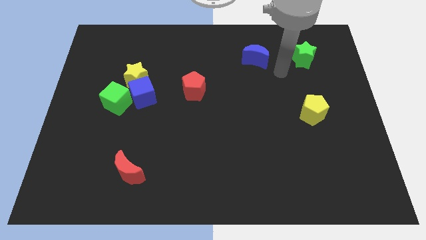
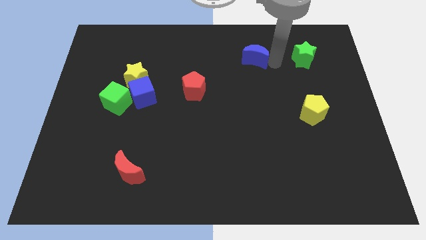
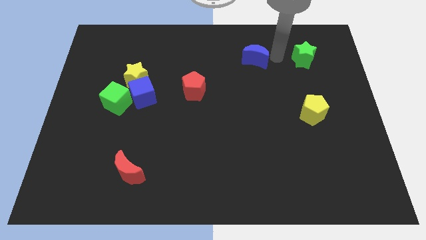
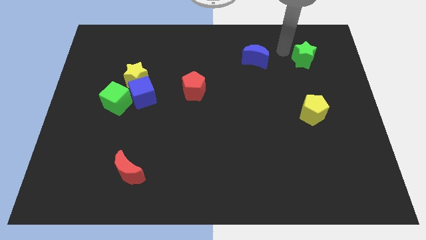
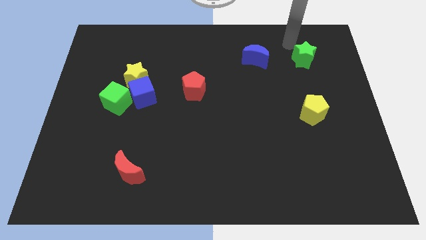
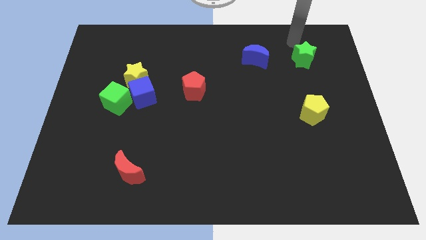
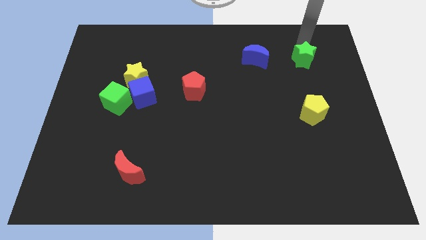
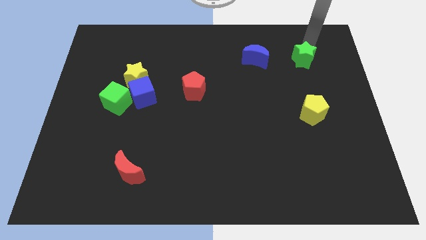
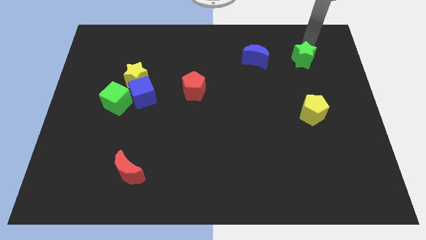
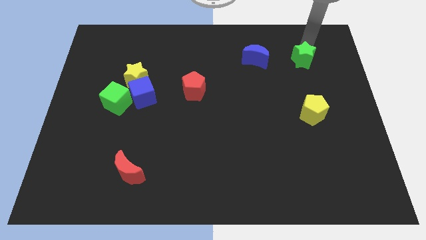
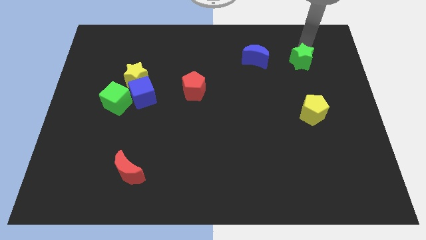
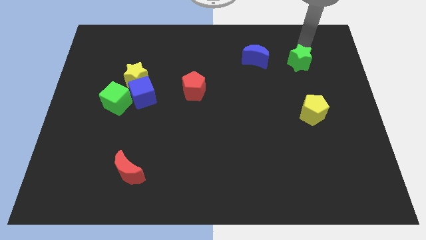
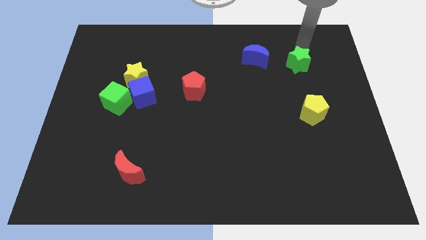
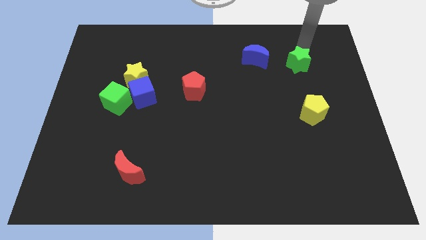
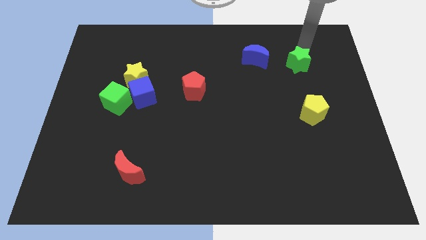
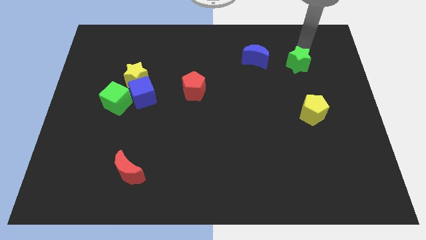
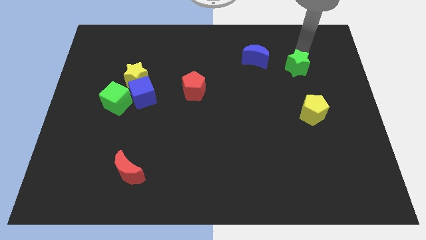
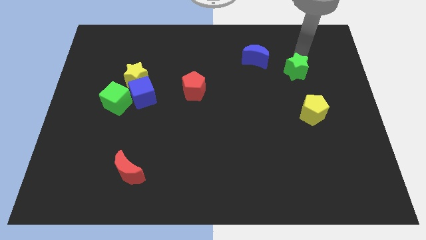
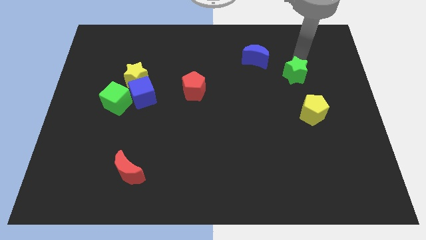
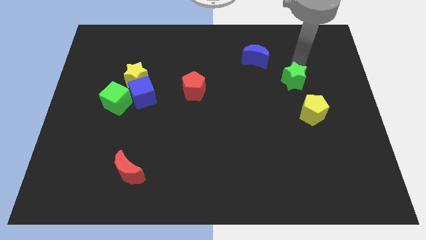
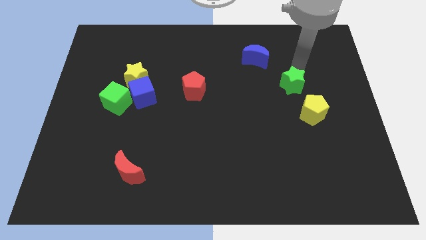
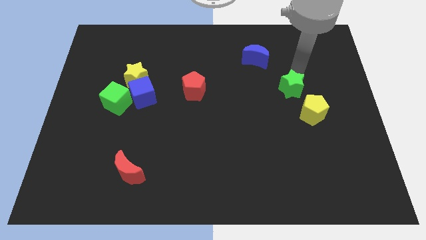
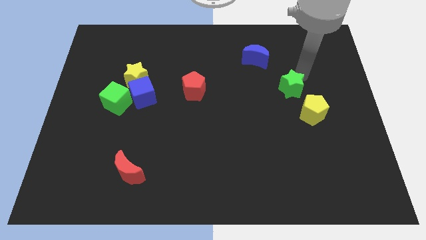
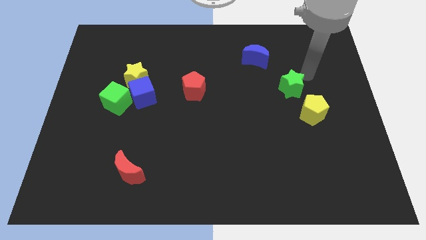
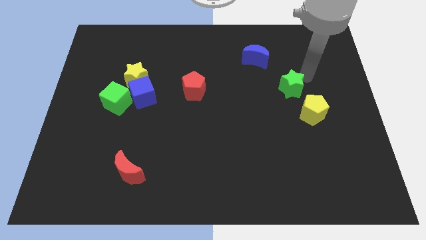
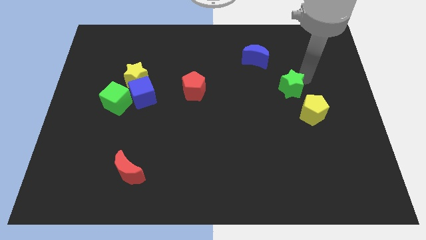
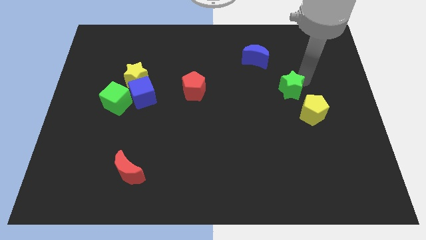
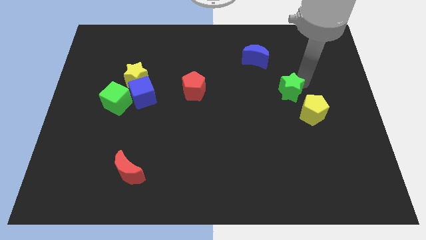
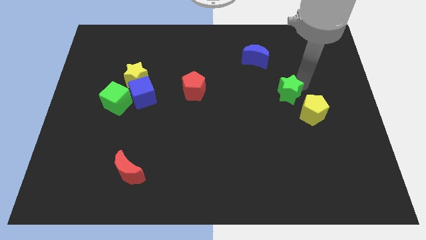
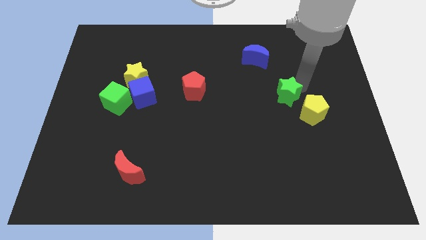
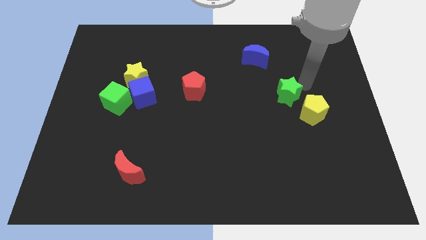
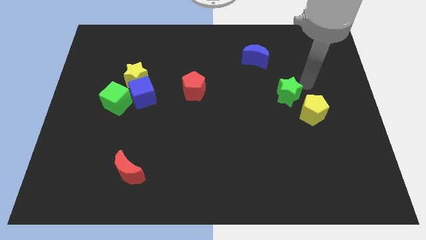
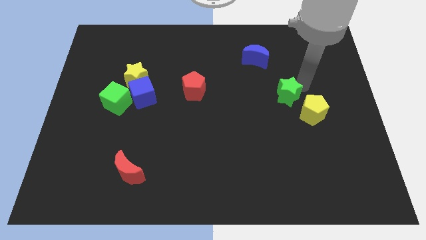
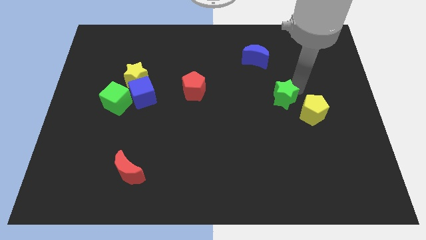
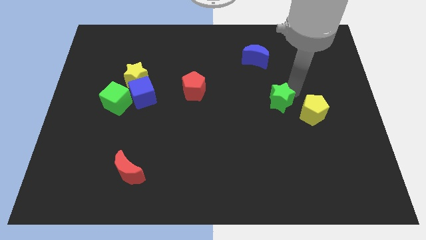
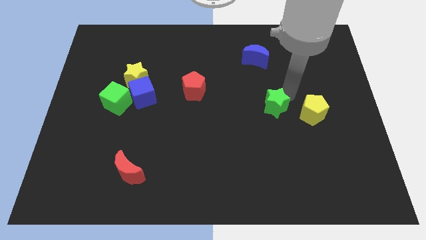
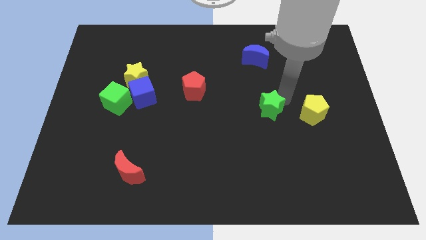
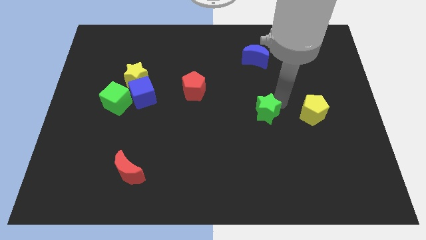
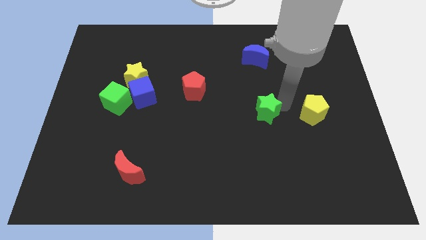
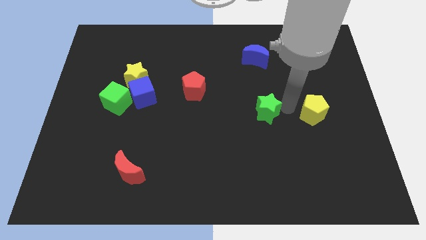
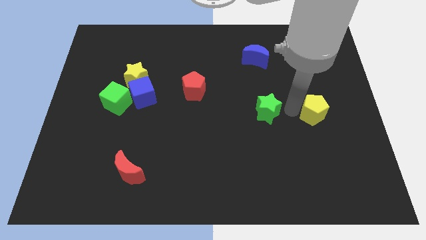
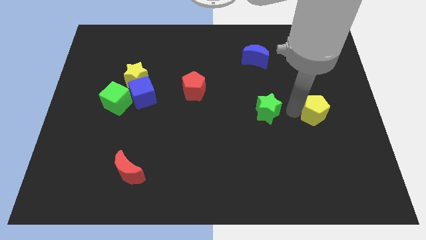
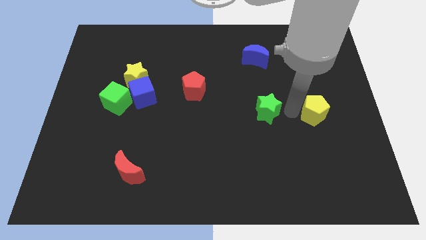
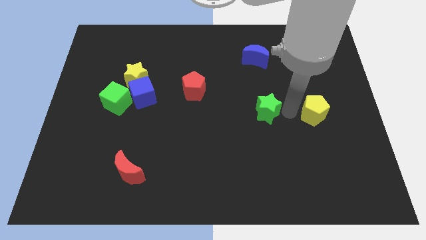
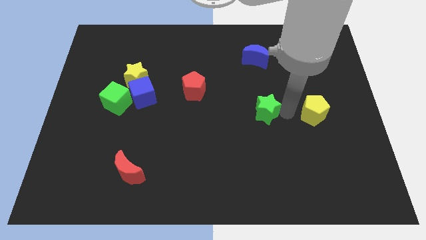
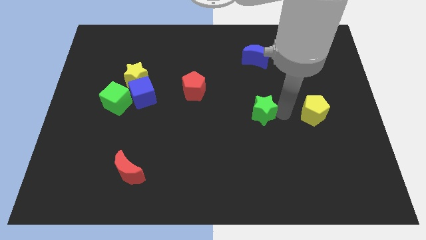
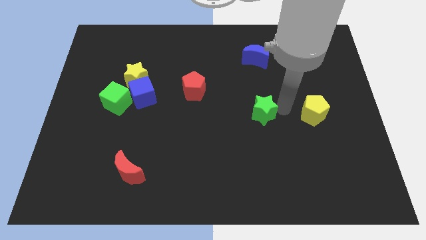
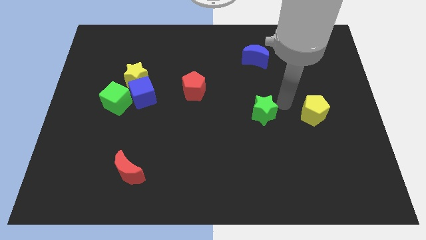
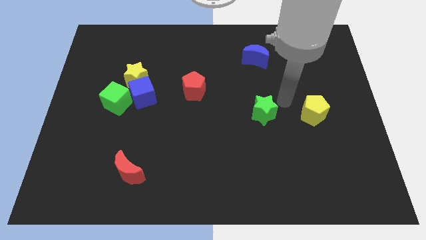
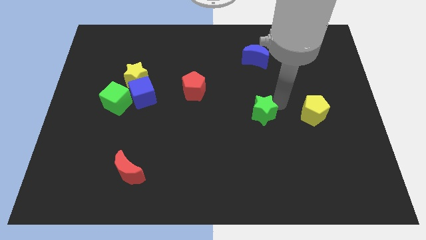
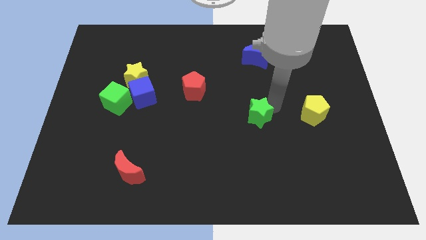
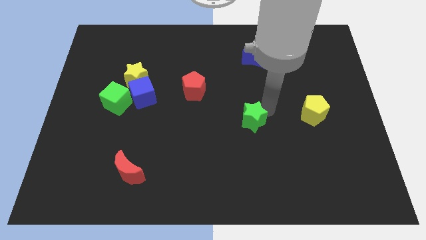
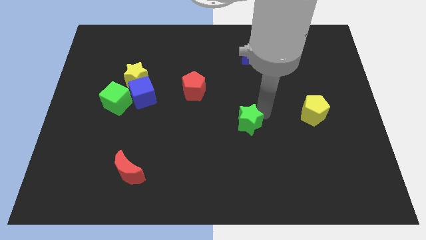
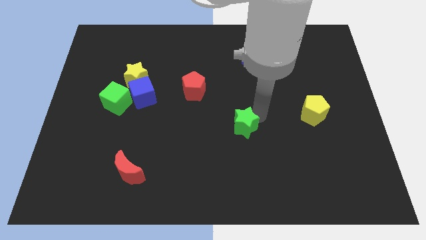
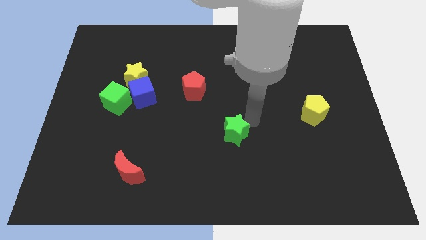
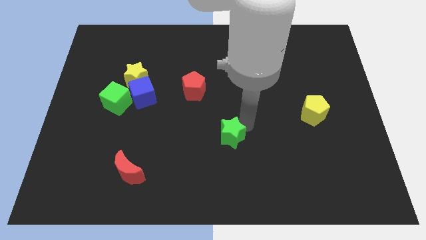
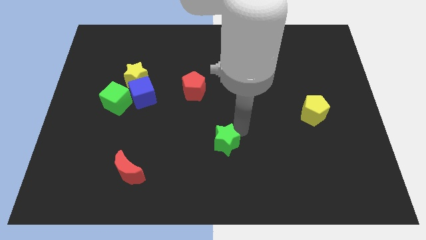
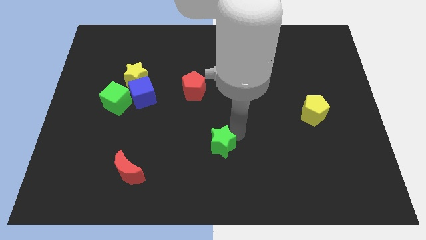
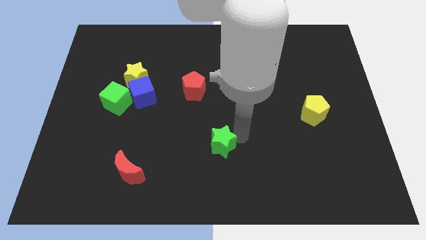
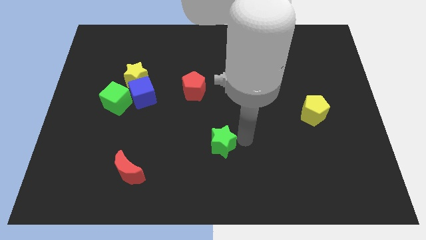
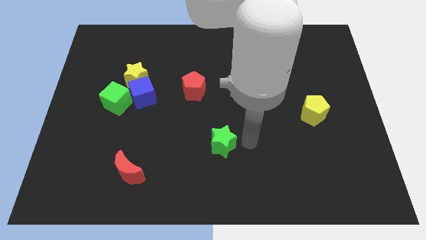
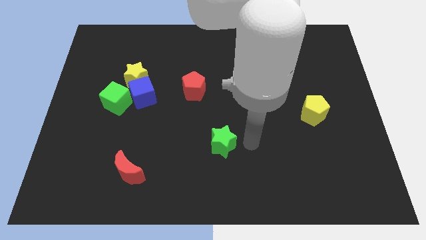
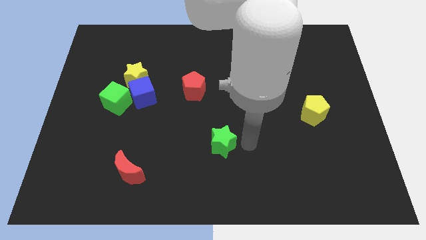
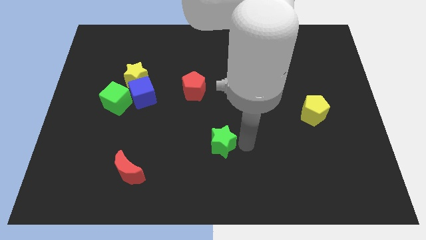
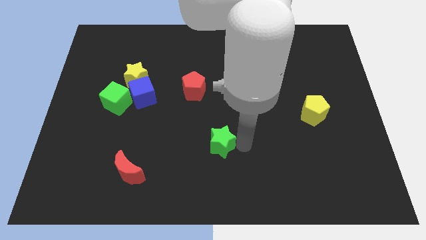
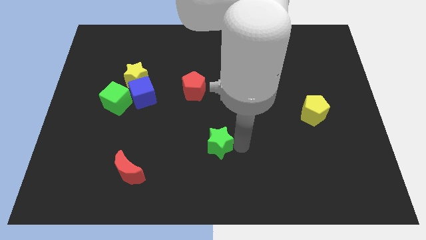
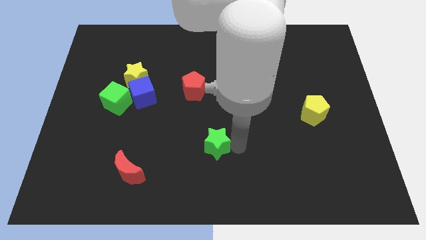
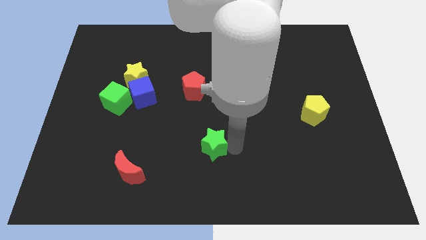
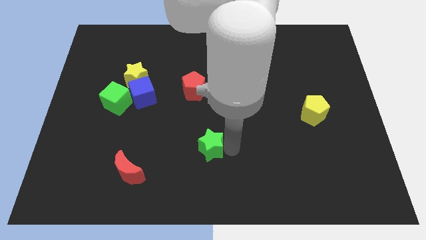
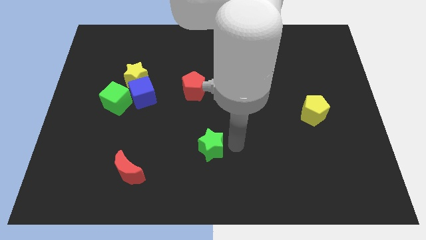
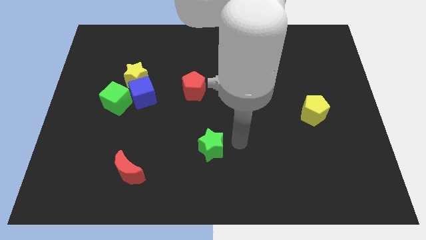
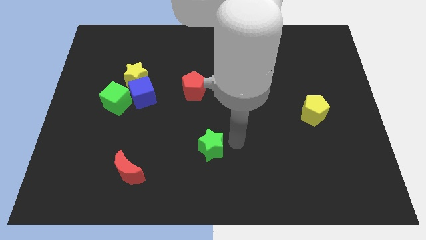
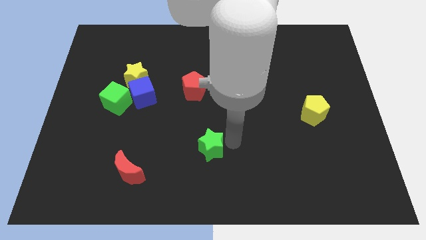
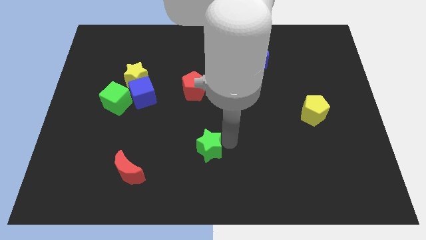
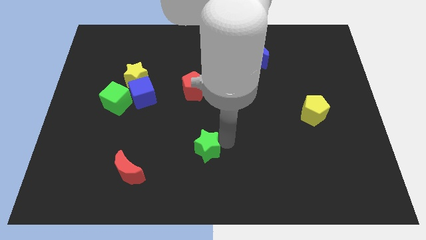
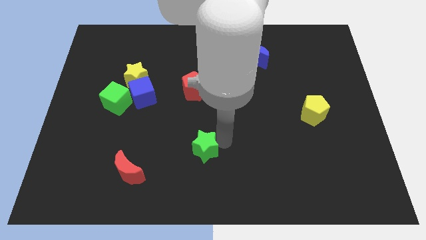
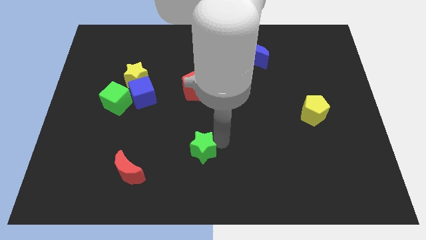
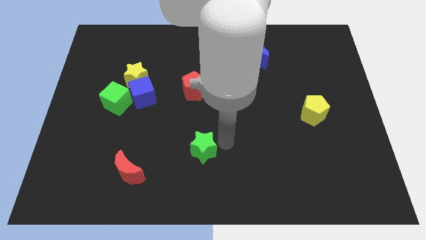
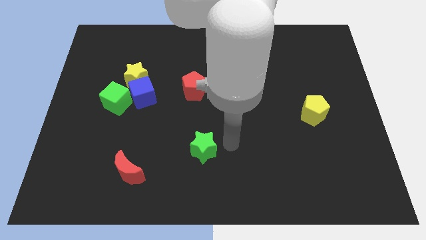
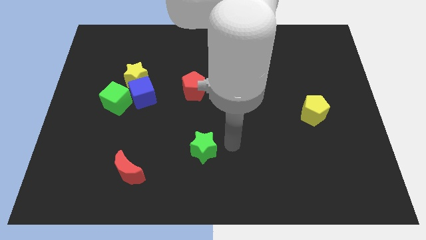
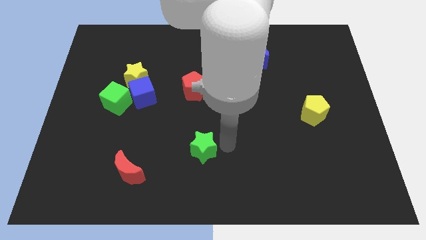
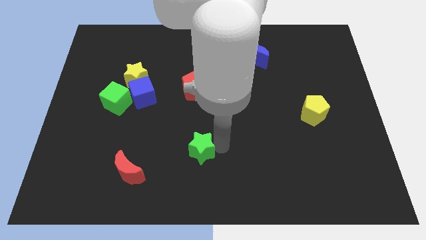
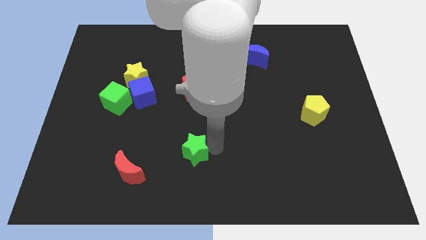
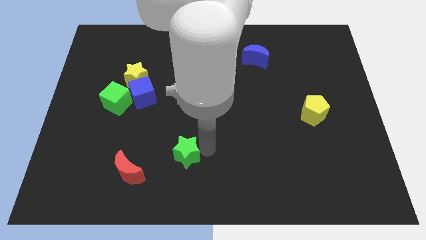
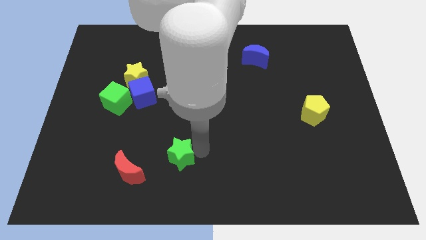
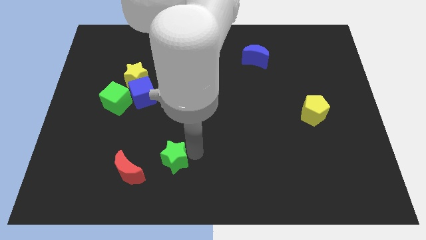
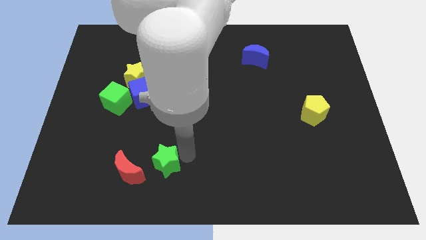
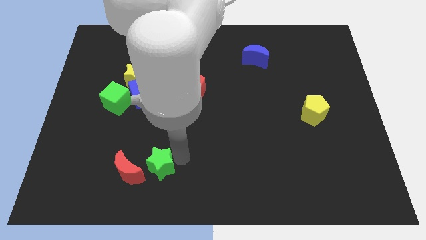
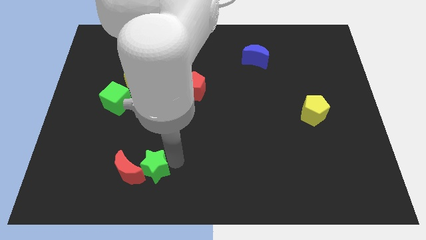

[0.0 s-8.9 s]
move the green star next to the red moon
